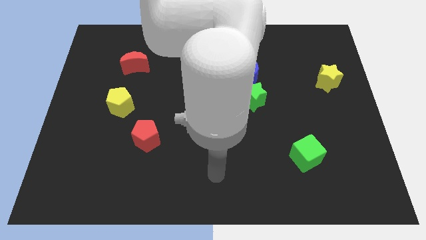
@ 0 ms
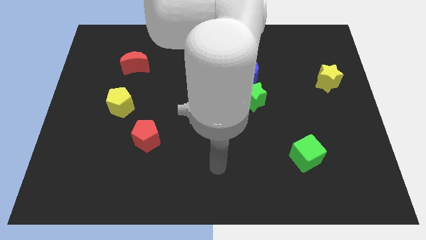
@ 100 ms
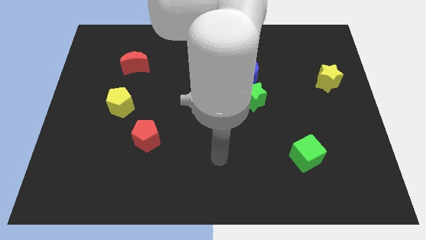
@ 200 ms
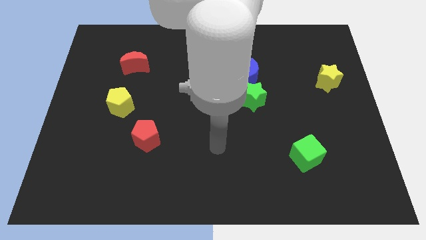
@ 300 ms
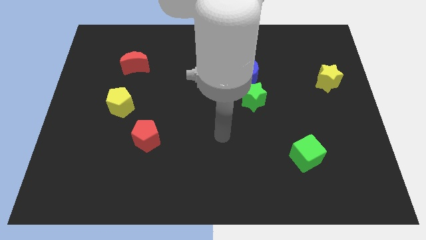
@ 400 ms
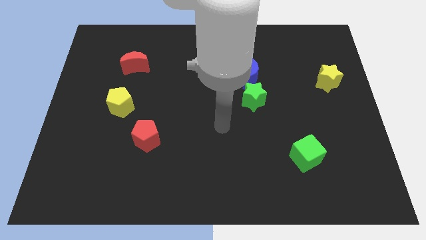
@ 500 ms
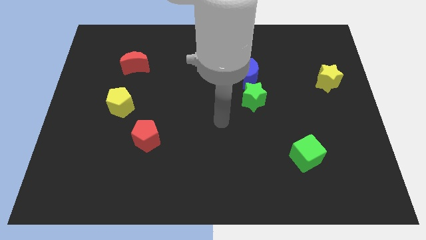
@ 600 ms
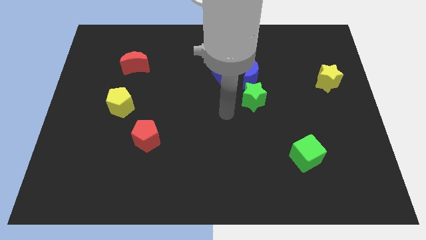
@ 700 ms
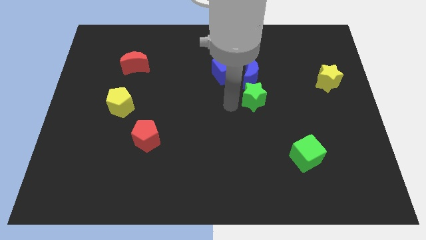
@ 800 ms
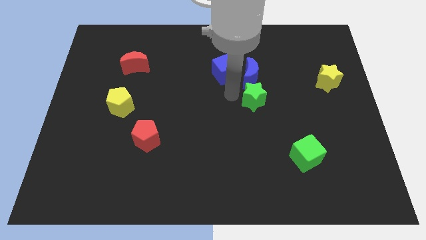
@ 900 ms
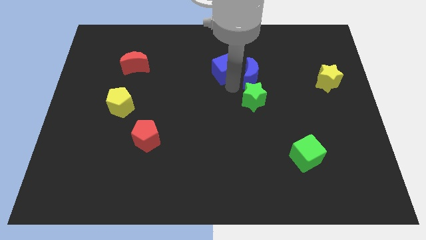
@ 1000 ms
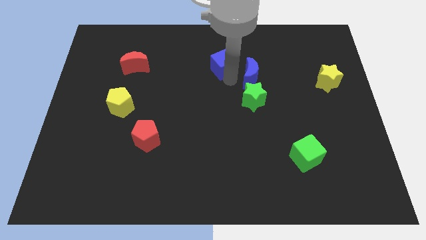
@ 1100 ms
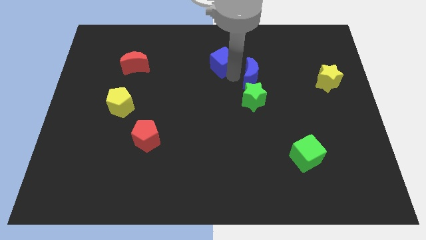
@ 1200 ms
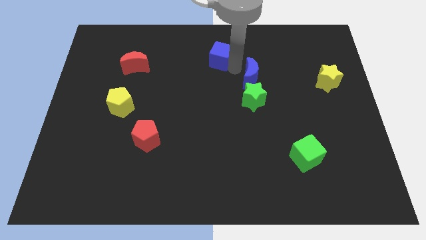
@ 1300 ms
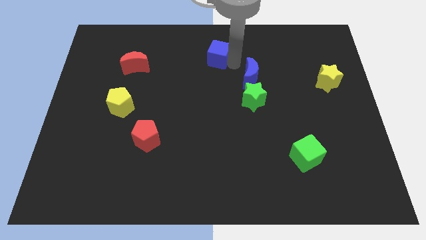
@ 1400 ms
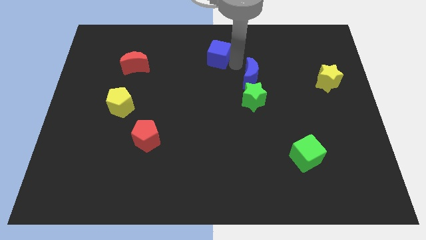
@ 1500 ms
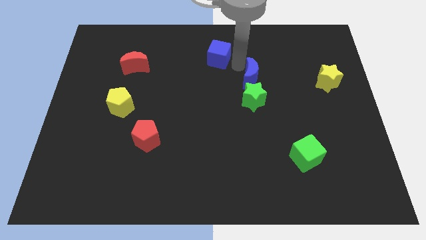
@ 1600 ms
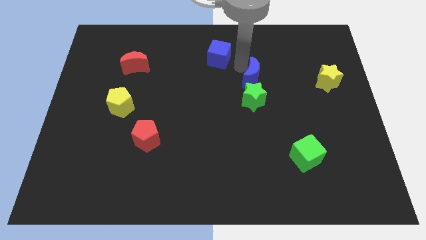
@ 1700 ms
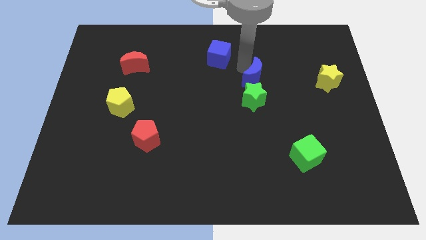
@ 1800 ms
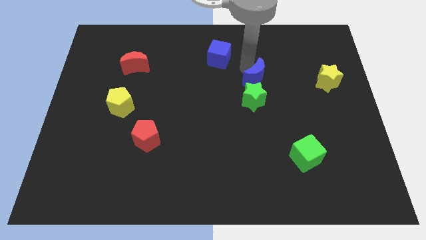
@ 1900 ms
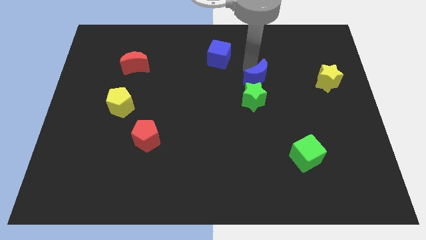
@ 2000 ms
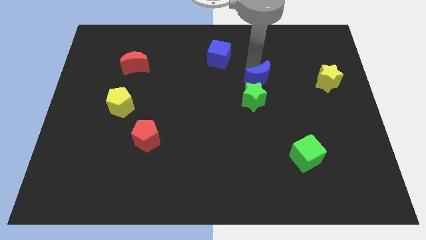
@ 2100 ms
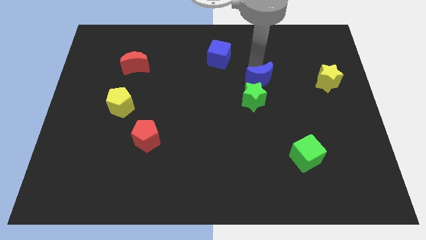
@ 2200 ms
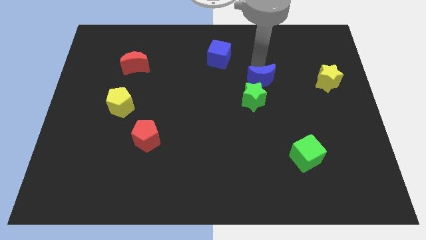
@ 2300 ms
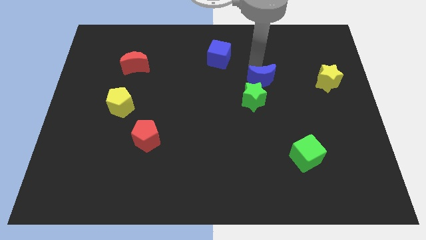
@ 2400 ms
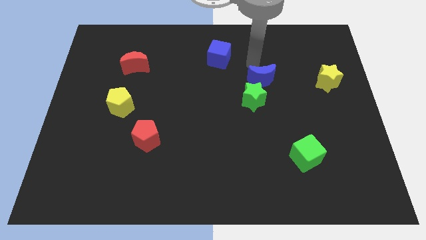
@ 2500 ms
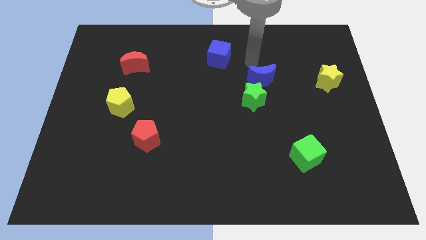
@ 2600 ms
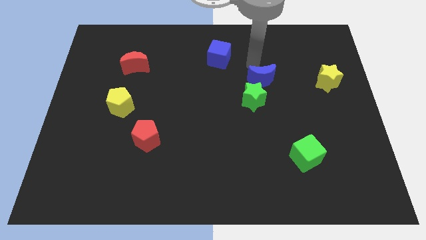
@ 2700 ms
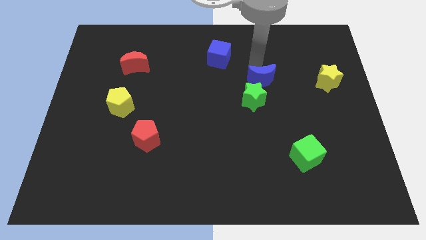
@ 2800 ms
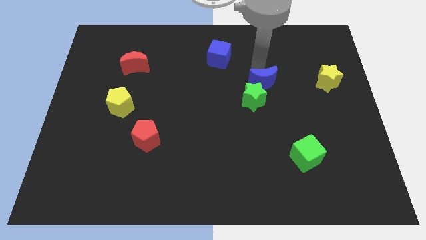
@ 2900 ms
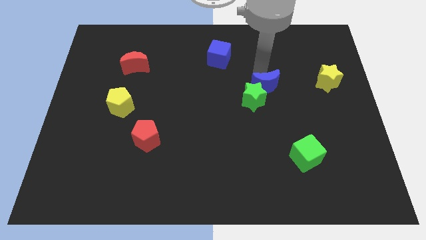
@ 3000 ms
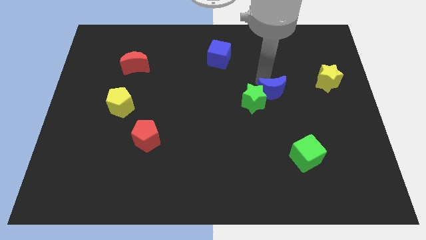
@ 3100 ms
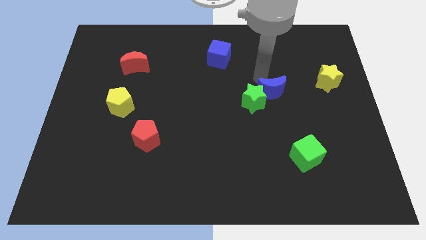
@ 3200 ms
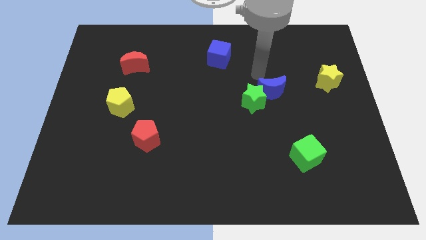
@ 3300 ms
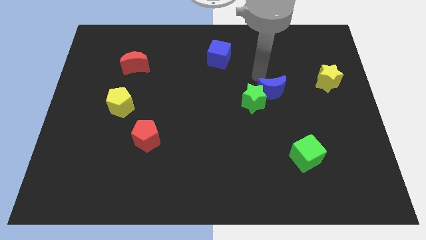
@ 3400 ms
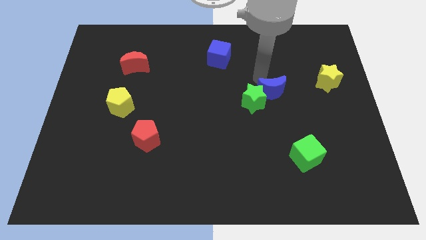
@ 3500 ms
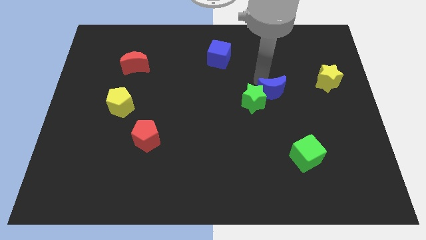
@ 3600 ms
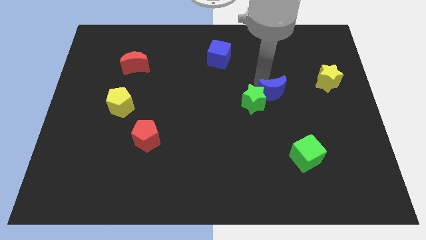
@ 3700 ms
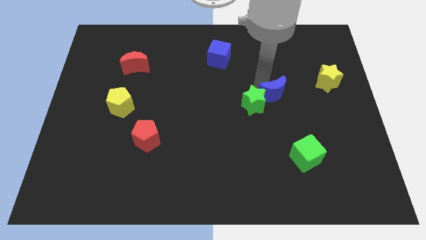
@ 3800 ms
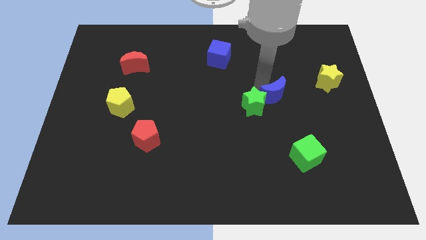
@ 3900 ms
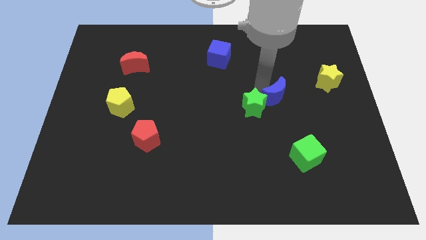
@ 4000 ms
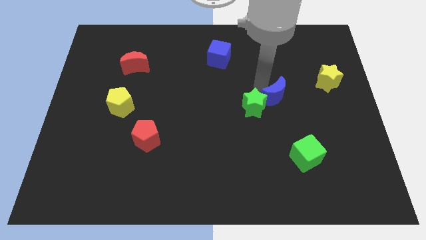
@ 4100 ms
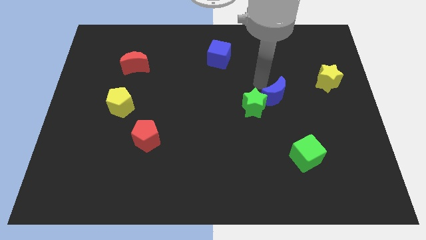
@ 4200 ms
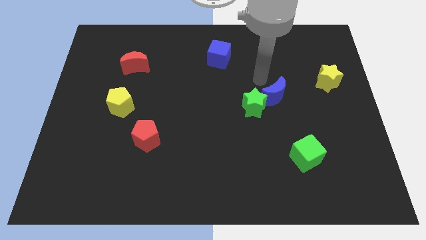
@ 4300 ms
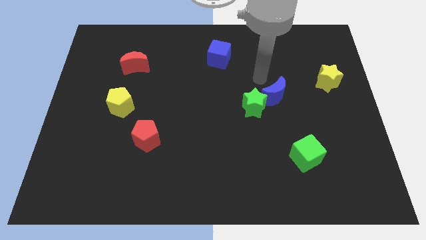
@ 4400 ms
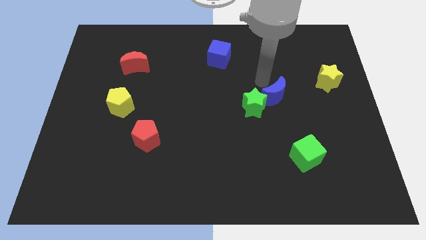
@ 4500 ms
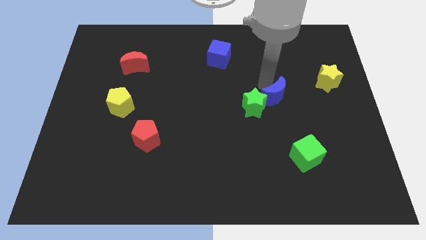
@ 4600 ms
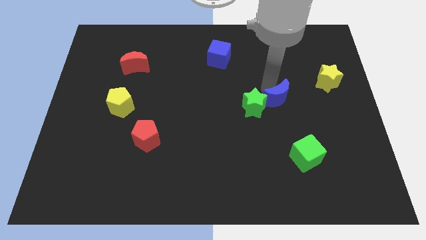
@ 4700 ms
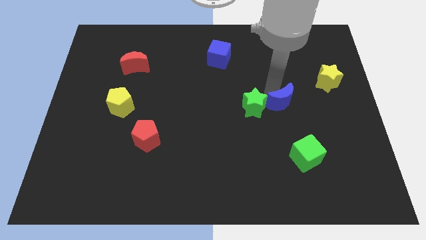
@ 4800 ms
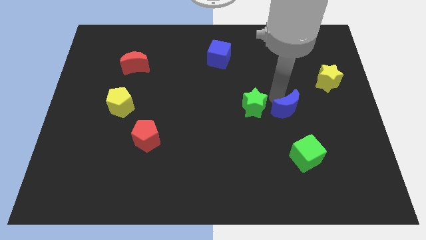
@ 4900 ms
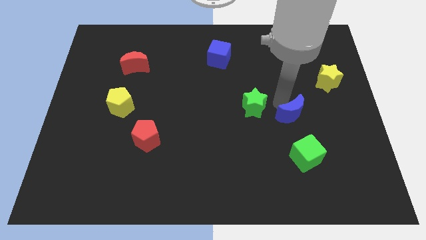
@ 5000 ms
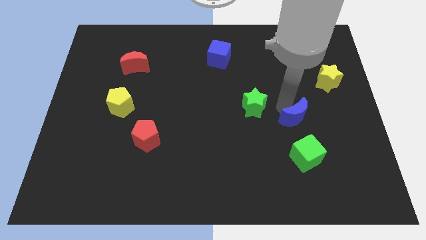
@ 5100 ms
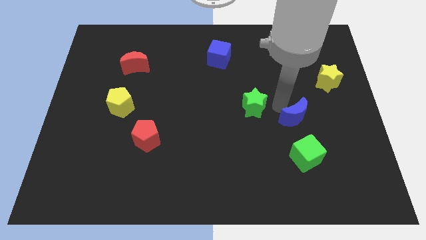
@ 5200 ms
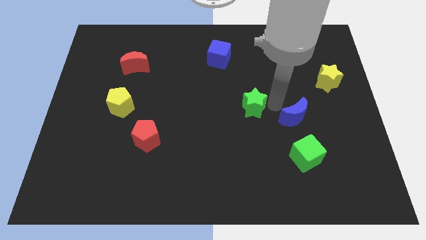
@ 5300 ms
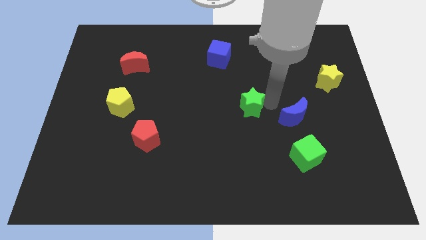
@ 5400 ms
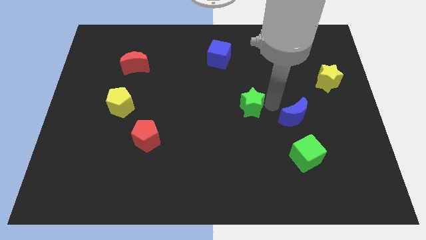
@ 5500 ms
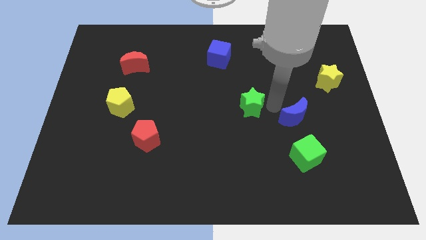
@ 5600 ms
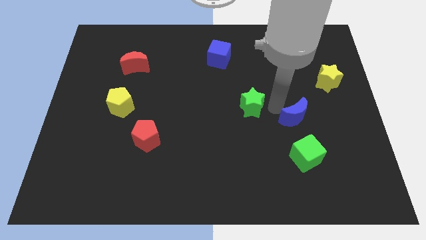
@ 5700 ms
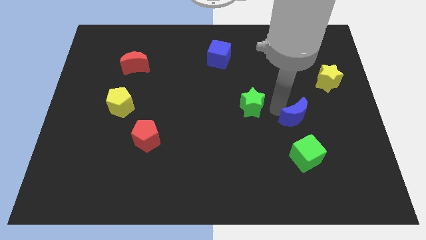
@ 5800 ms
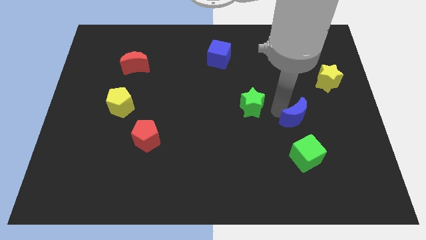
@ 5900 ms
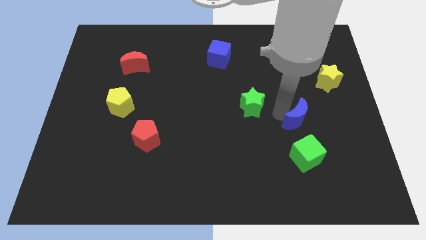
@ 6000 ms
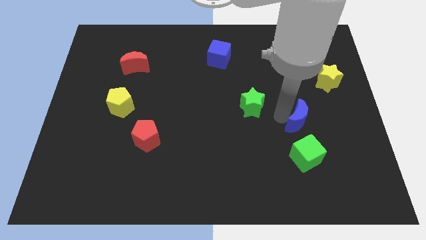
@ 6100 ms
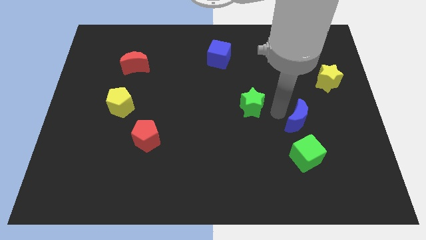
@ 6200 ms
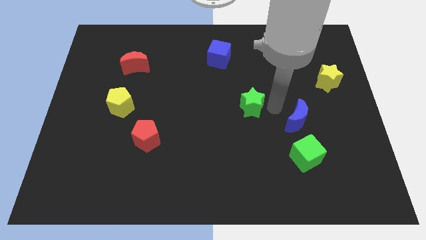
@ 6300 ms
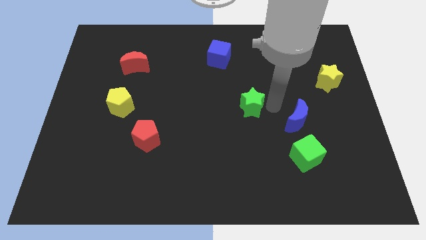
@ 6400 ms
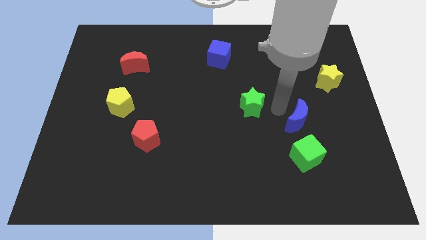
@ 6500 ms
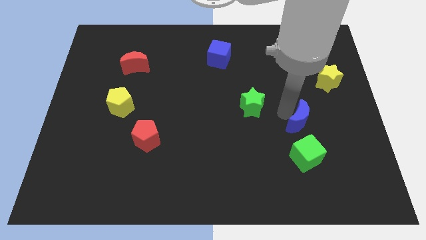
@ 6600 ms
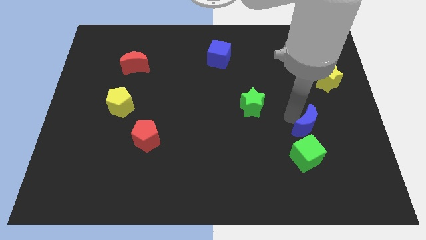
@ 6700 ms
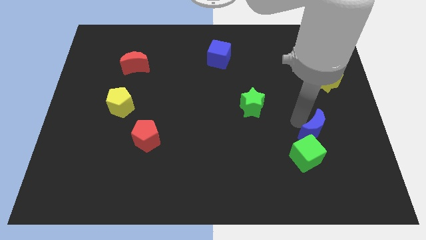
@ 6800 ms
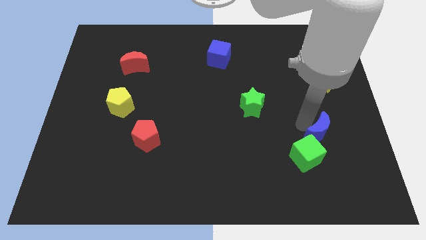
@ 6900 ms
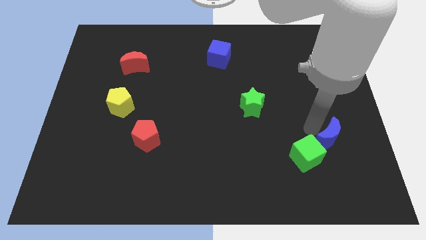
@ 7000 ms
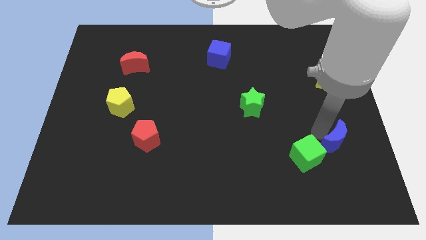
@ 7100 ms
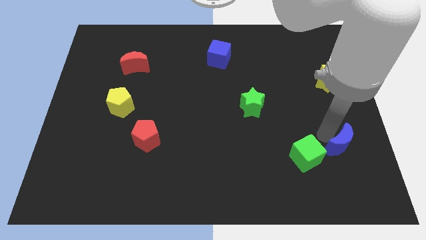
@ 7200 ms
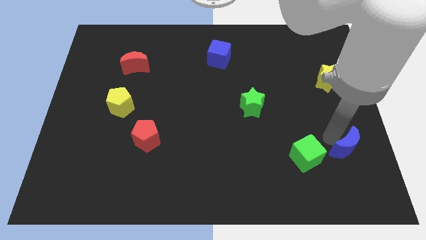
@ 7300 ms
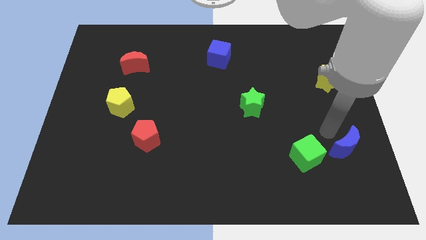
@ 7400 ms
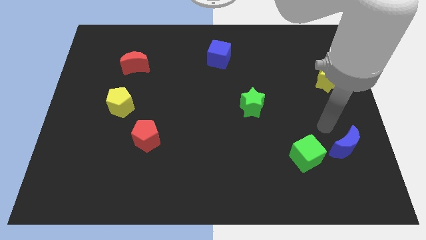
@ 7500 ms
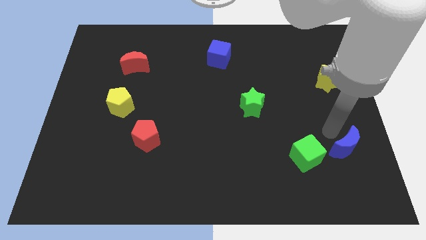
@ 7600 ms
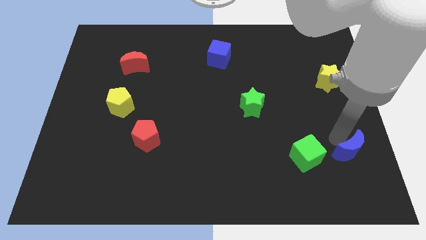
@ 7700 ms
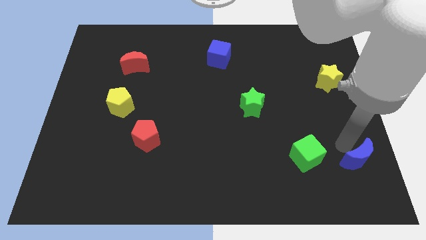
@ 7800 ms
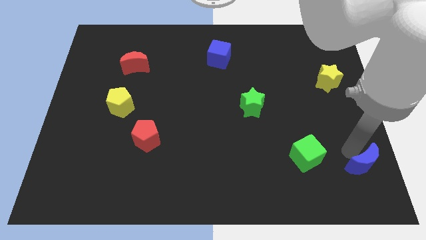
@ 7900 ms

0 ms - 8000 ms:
push the blue moon to the bottom right of the board
